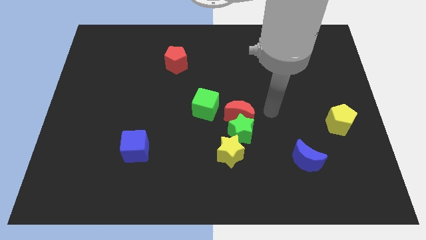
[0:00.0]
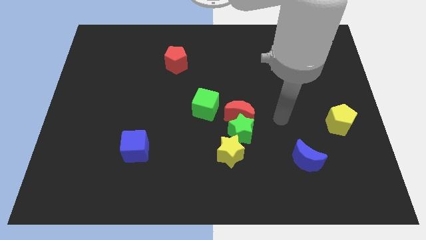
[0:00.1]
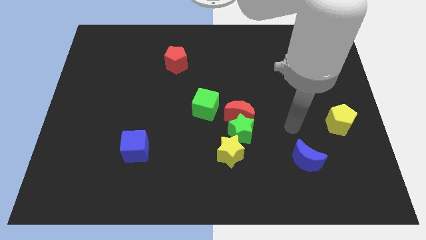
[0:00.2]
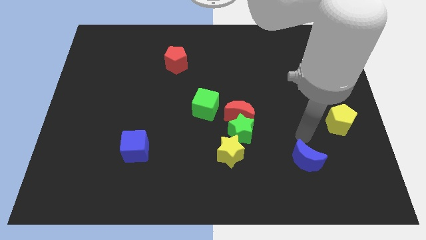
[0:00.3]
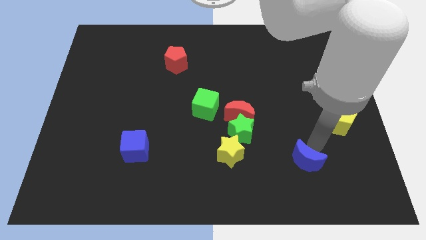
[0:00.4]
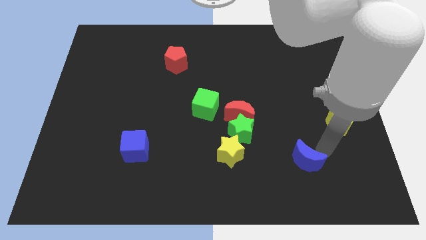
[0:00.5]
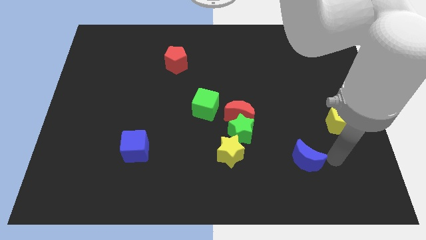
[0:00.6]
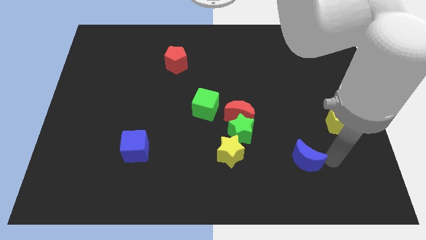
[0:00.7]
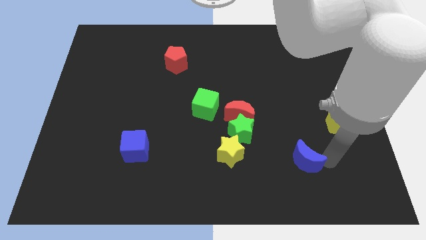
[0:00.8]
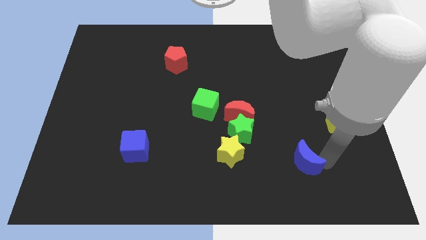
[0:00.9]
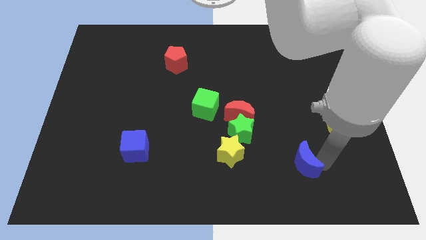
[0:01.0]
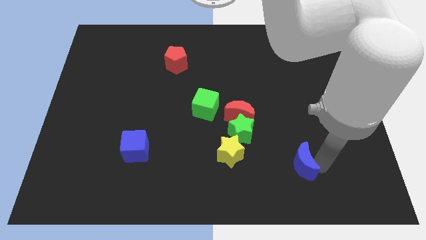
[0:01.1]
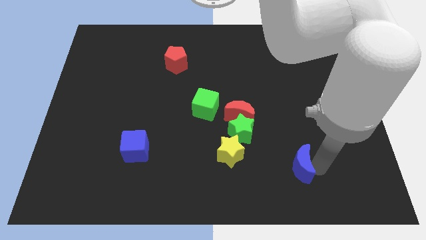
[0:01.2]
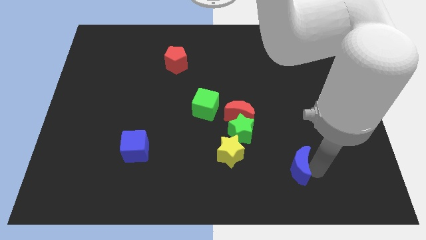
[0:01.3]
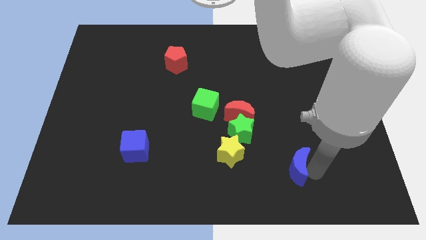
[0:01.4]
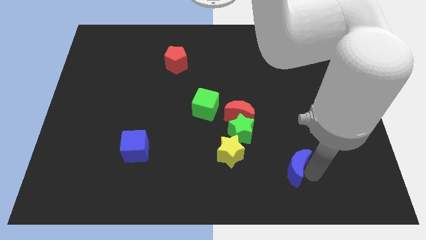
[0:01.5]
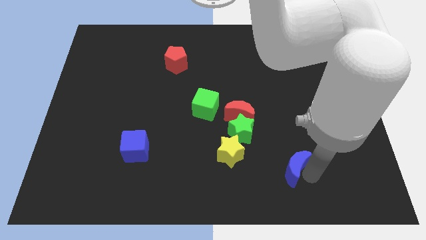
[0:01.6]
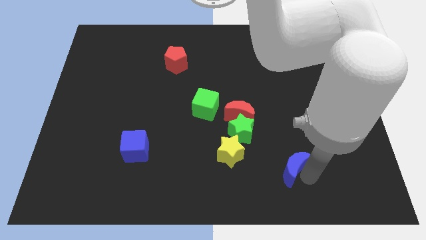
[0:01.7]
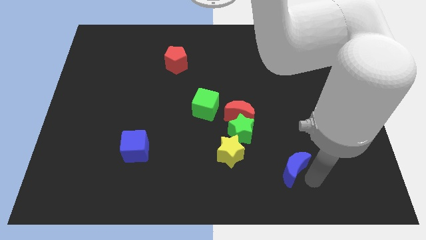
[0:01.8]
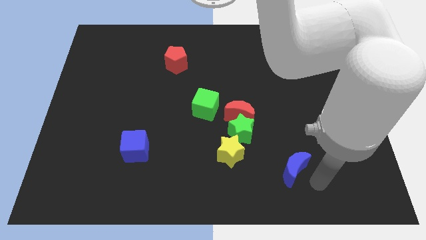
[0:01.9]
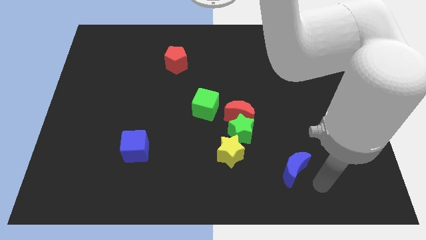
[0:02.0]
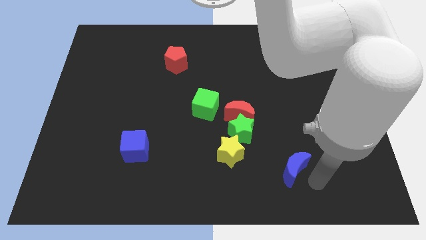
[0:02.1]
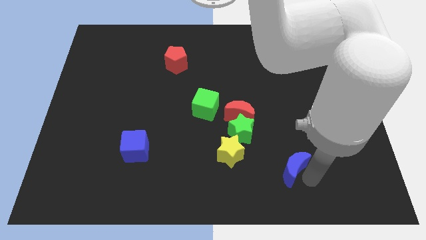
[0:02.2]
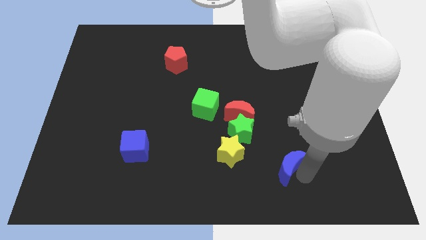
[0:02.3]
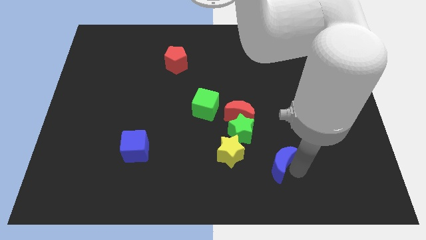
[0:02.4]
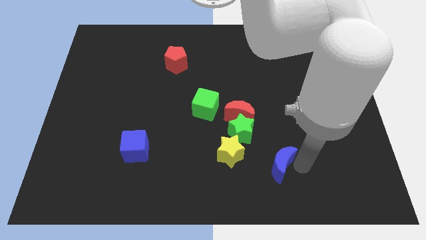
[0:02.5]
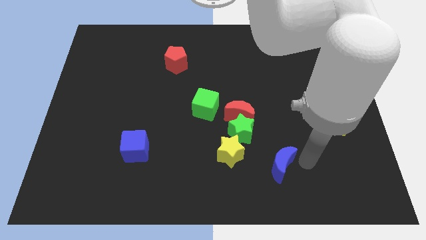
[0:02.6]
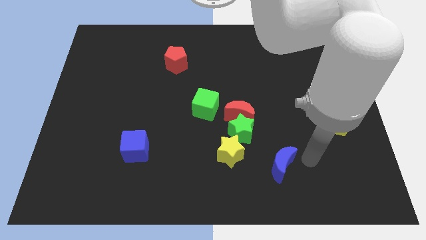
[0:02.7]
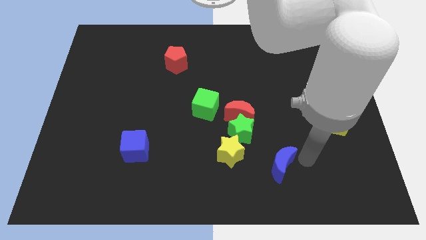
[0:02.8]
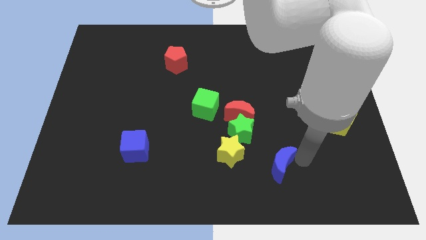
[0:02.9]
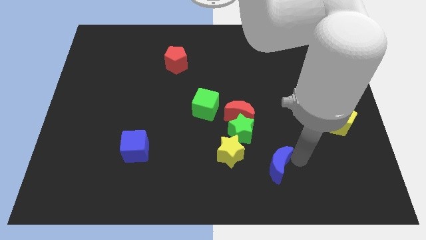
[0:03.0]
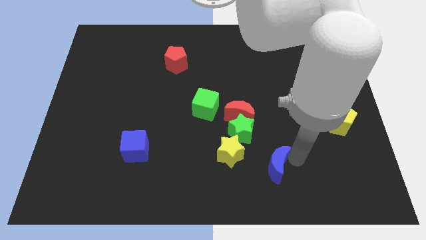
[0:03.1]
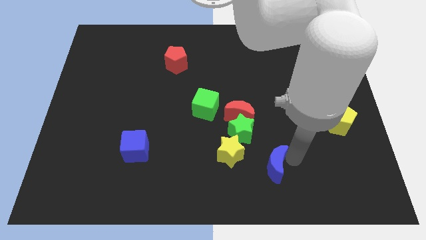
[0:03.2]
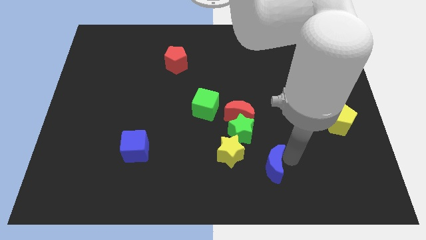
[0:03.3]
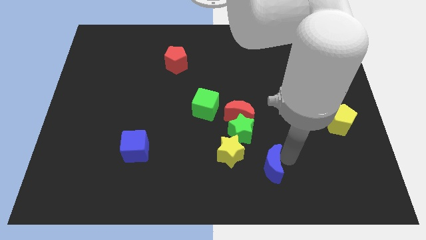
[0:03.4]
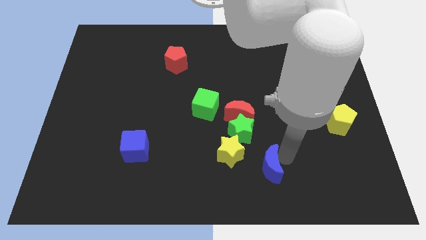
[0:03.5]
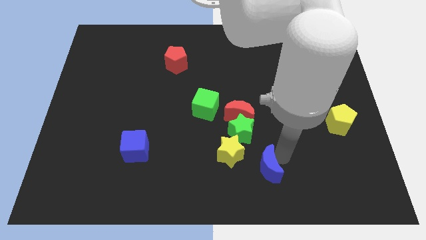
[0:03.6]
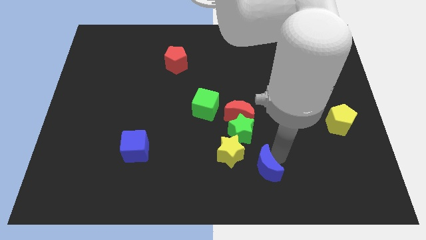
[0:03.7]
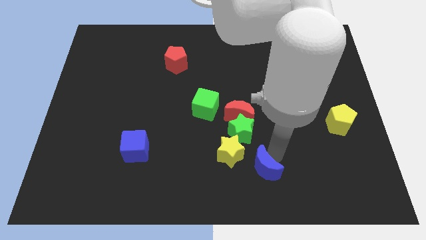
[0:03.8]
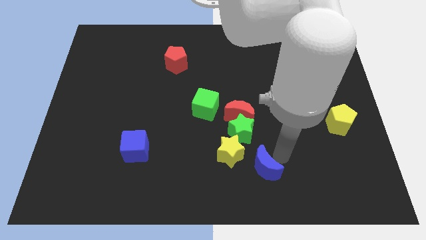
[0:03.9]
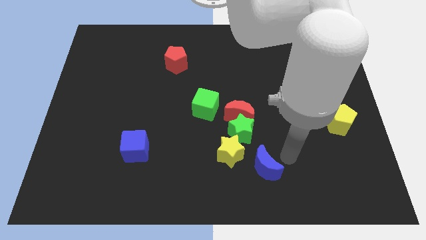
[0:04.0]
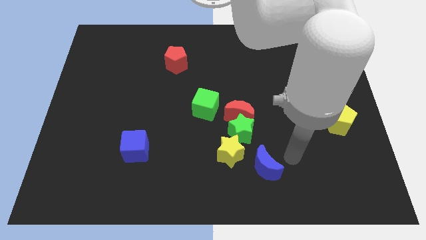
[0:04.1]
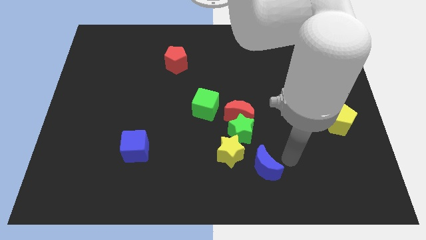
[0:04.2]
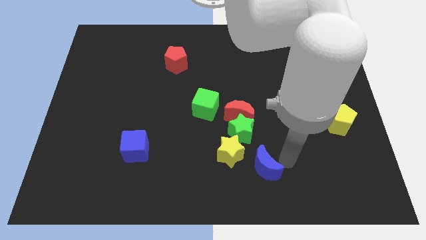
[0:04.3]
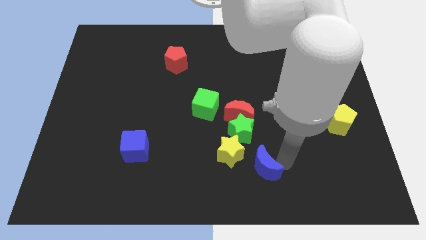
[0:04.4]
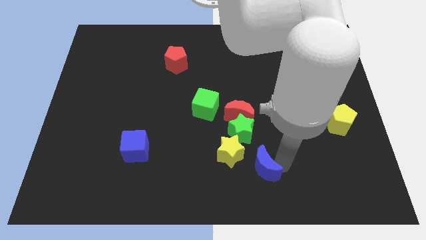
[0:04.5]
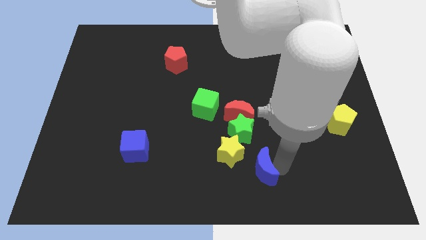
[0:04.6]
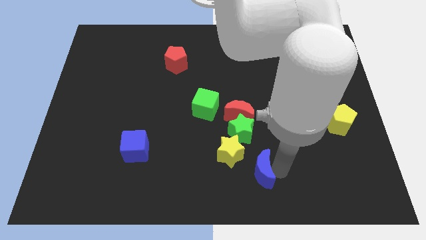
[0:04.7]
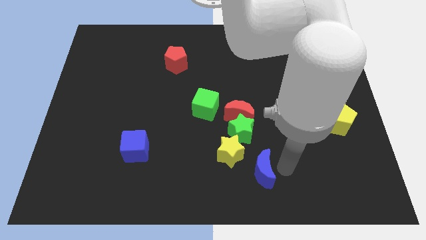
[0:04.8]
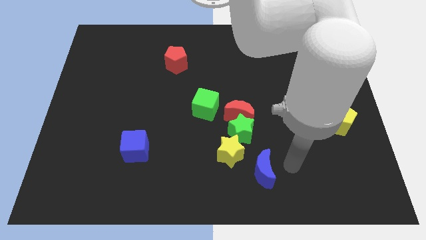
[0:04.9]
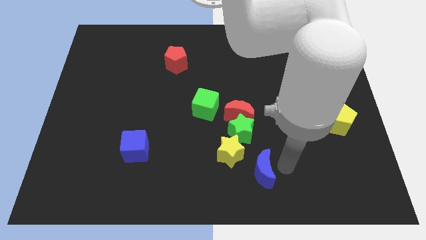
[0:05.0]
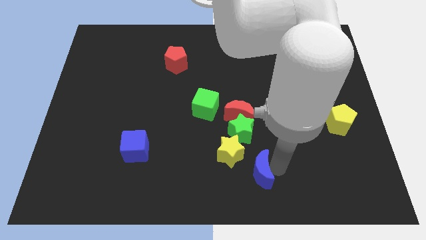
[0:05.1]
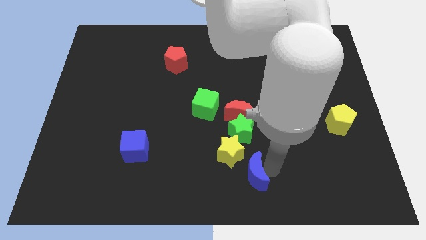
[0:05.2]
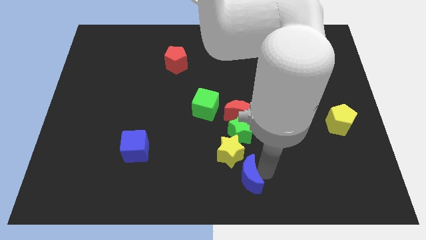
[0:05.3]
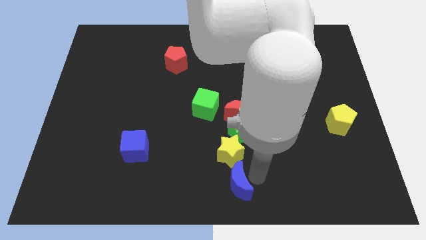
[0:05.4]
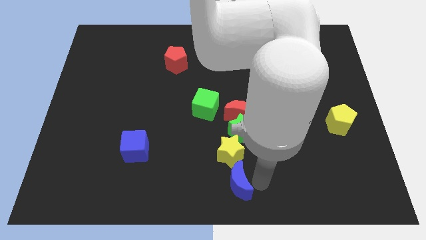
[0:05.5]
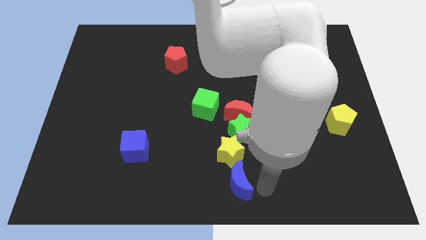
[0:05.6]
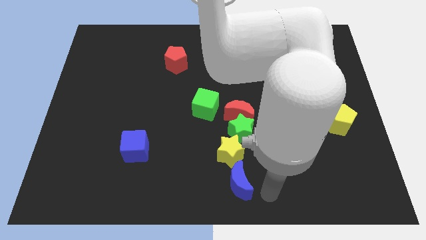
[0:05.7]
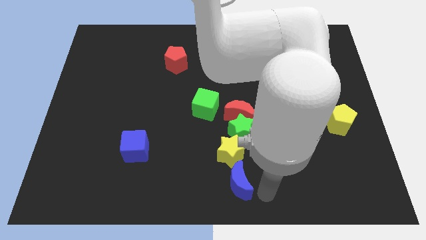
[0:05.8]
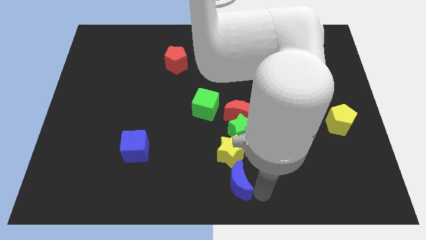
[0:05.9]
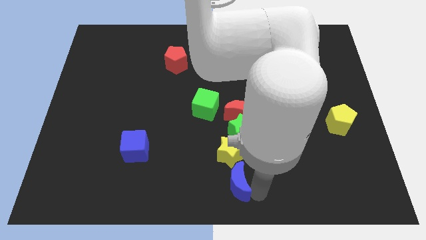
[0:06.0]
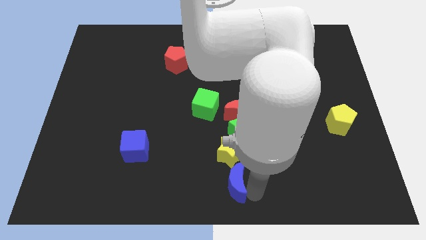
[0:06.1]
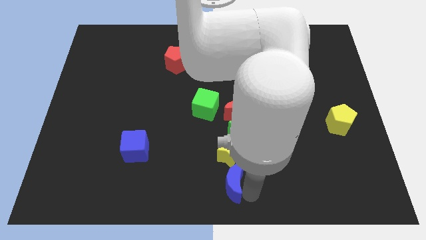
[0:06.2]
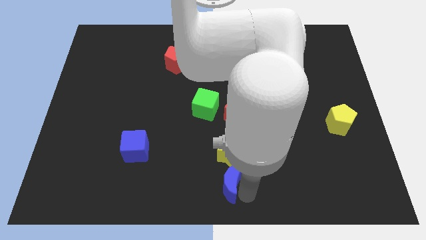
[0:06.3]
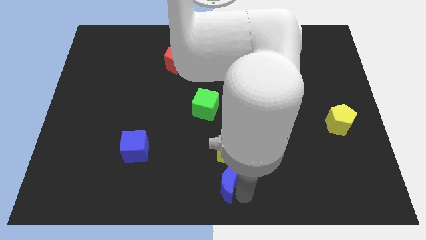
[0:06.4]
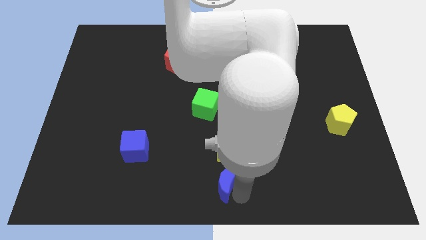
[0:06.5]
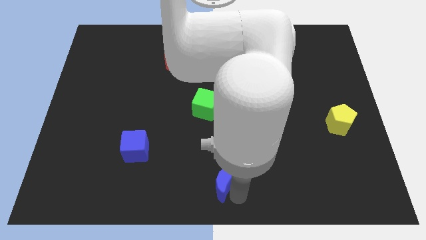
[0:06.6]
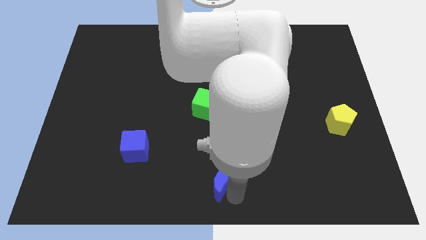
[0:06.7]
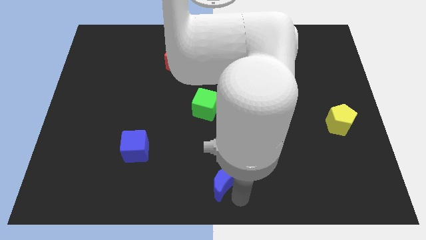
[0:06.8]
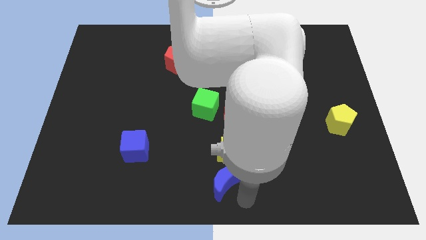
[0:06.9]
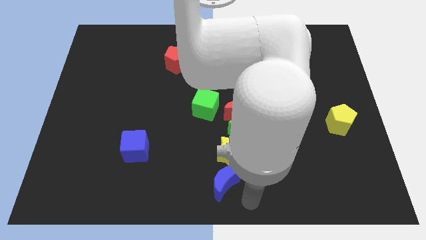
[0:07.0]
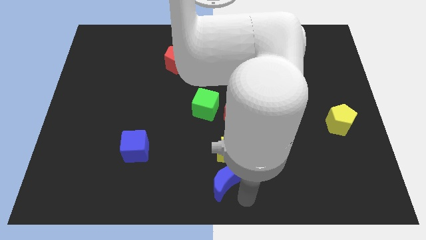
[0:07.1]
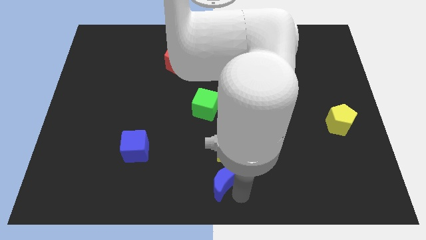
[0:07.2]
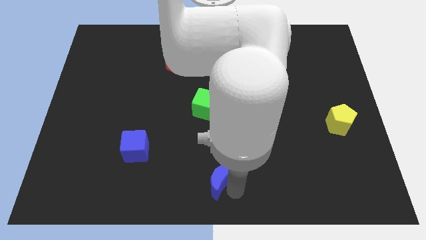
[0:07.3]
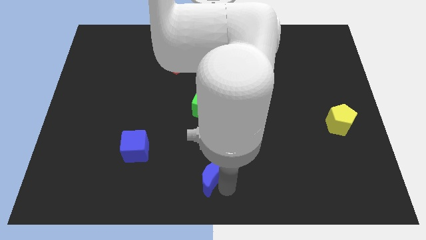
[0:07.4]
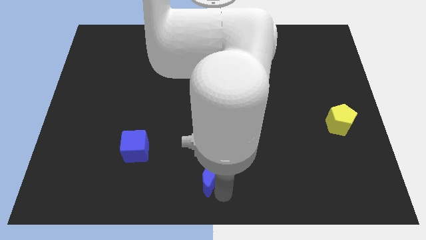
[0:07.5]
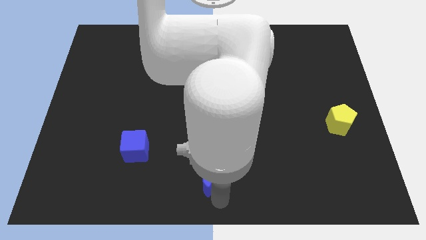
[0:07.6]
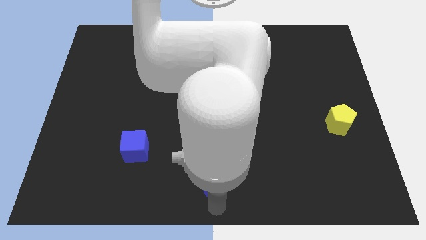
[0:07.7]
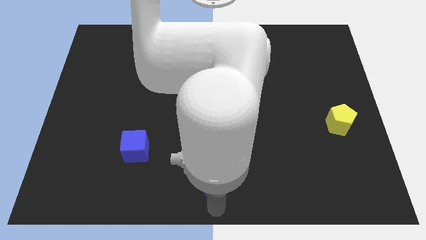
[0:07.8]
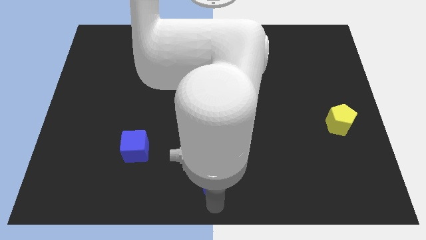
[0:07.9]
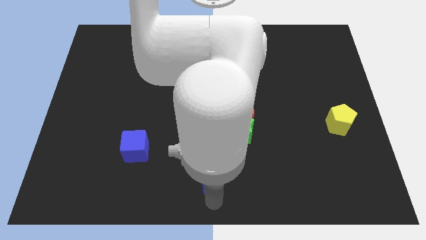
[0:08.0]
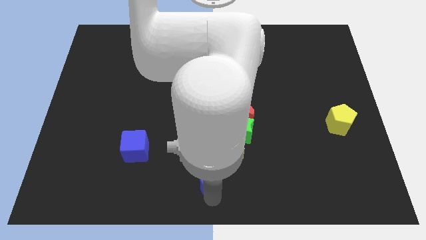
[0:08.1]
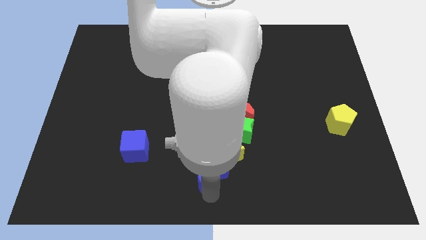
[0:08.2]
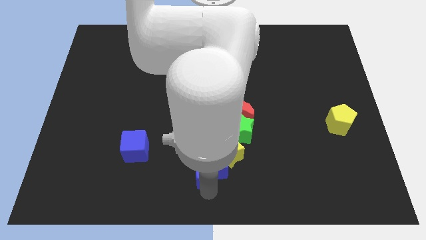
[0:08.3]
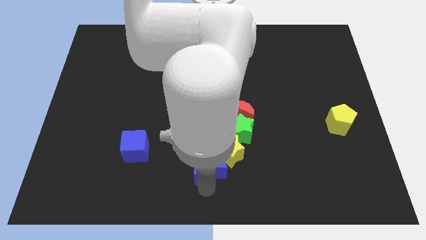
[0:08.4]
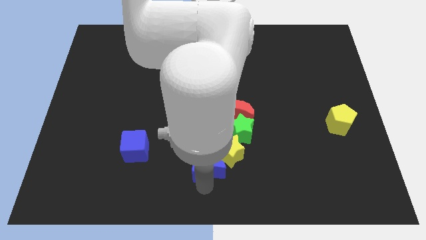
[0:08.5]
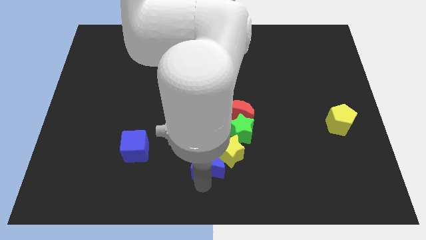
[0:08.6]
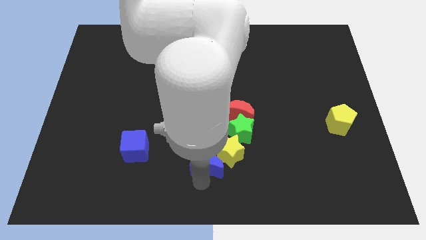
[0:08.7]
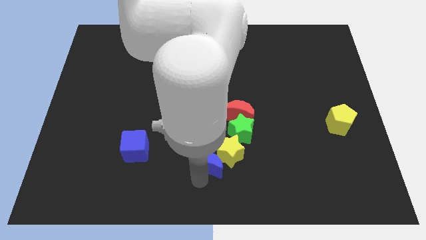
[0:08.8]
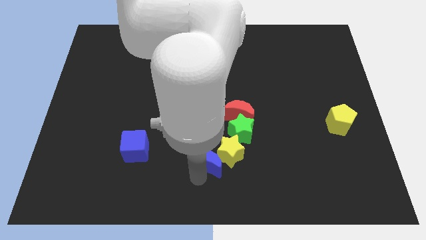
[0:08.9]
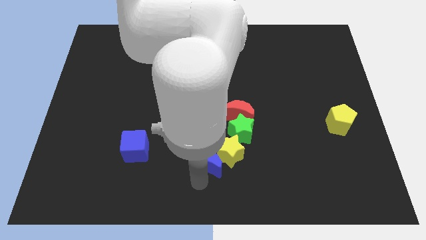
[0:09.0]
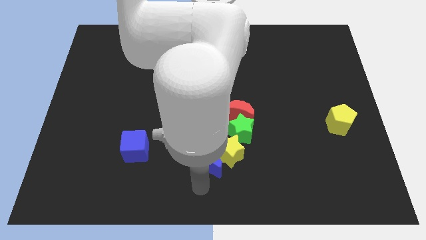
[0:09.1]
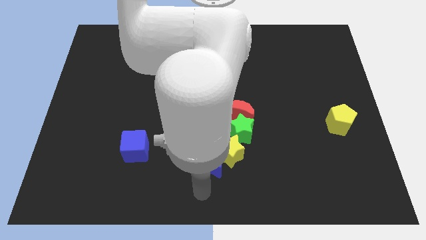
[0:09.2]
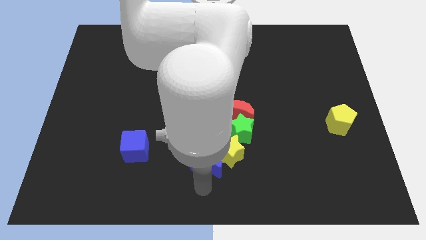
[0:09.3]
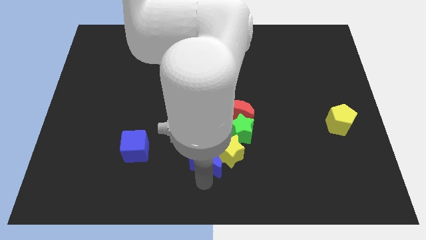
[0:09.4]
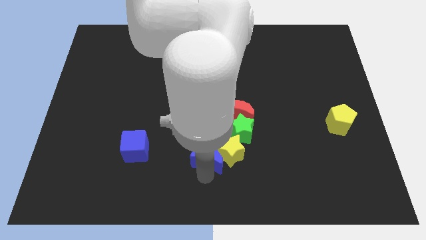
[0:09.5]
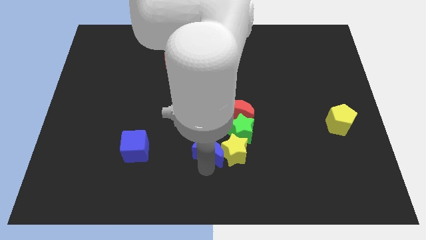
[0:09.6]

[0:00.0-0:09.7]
push the blue moon to the bottom left side of the red moon
